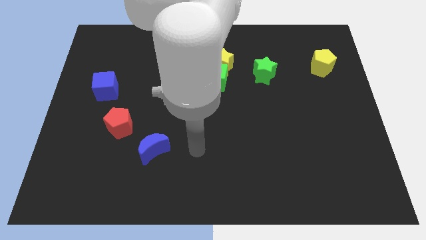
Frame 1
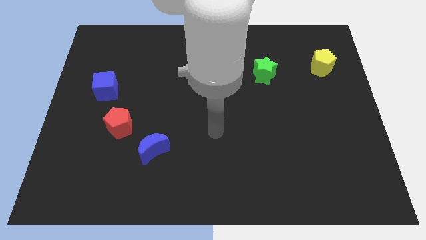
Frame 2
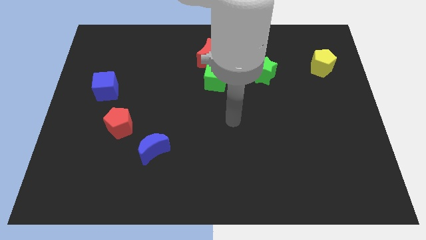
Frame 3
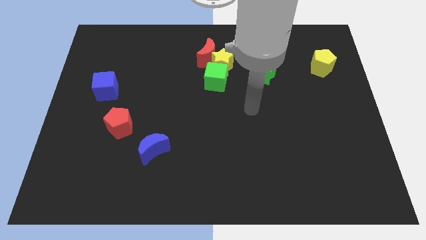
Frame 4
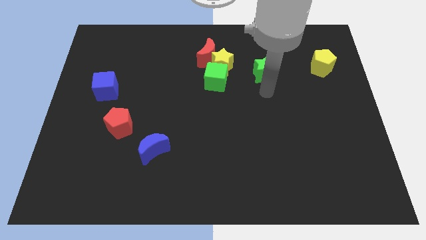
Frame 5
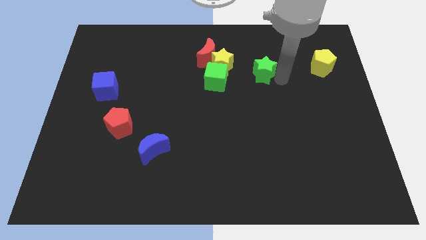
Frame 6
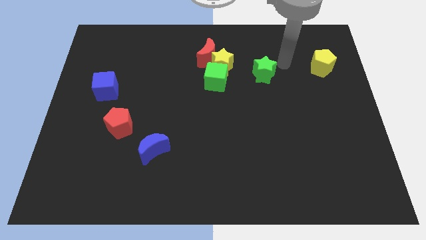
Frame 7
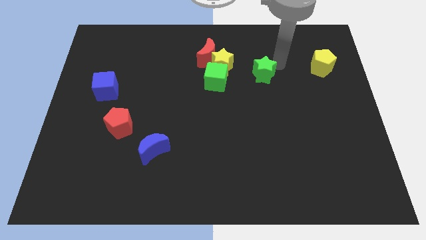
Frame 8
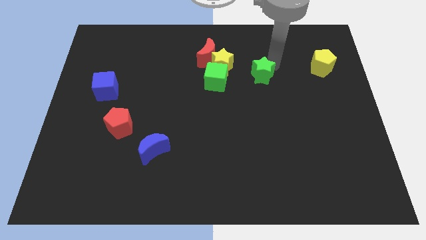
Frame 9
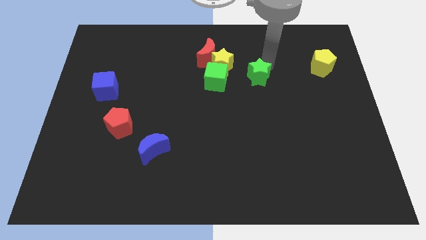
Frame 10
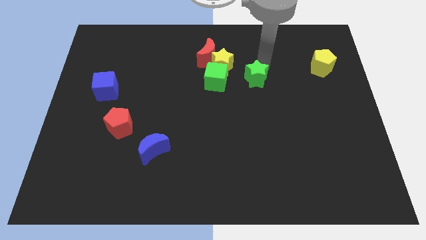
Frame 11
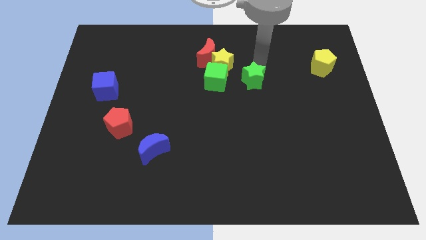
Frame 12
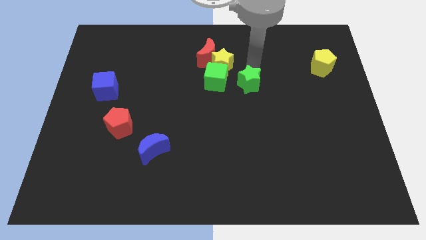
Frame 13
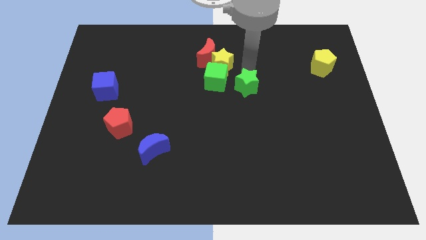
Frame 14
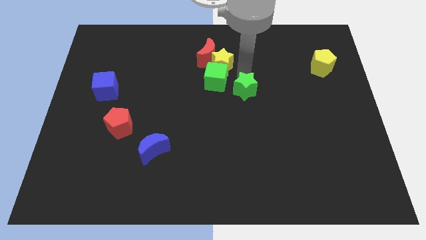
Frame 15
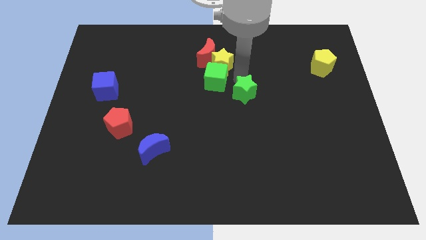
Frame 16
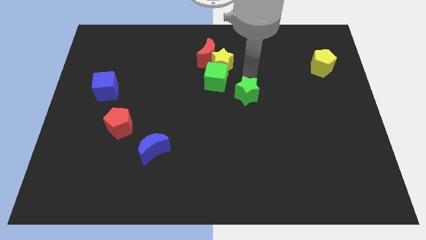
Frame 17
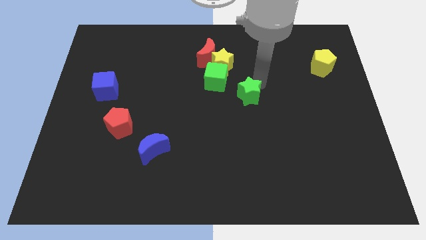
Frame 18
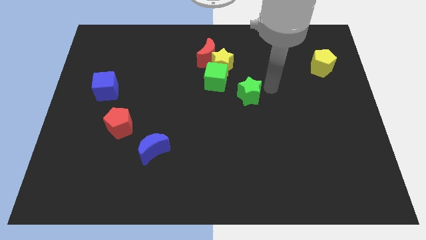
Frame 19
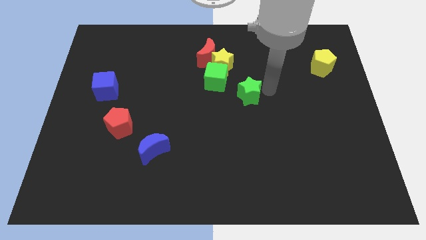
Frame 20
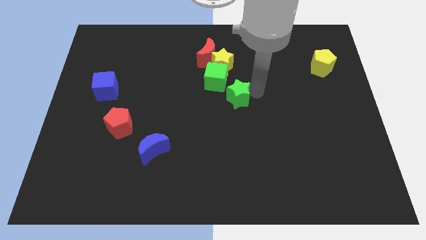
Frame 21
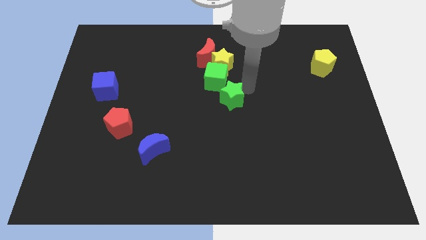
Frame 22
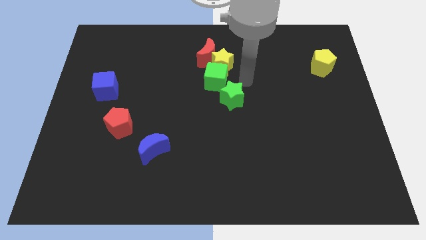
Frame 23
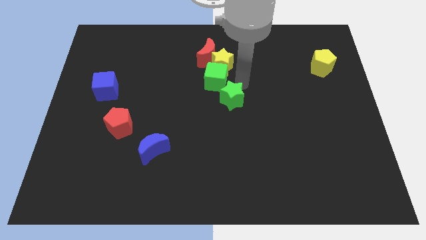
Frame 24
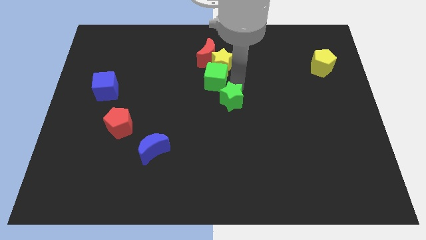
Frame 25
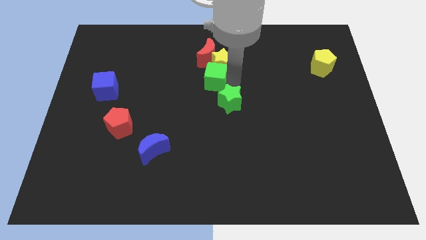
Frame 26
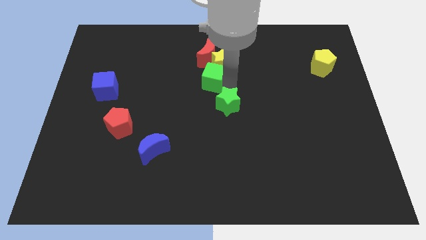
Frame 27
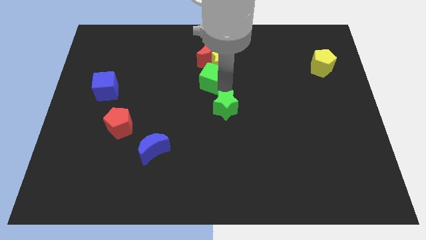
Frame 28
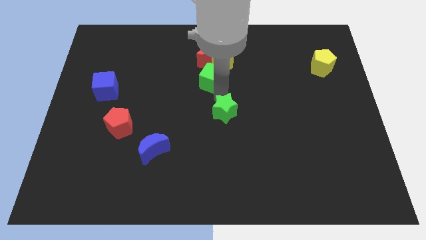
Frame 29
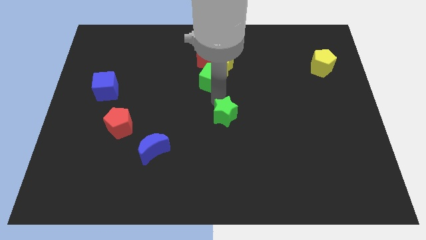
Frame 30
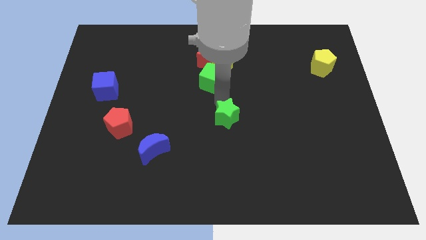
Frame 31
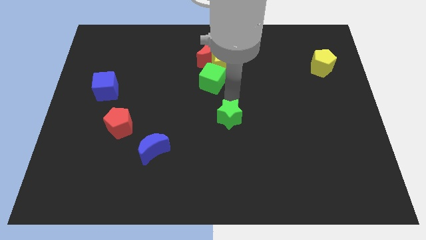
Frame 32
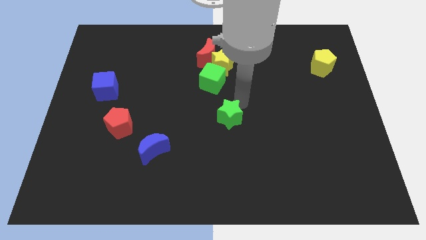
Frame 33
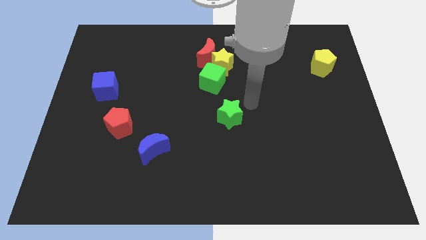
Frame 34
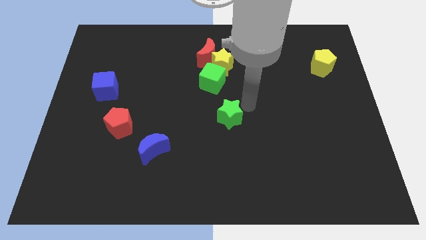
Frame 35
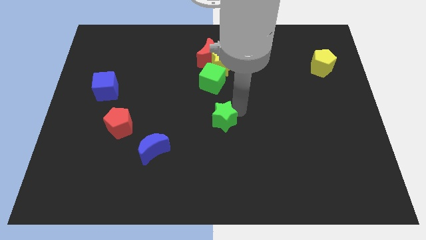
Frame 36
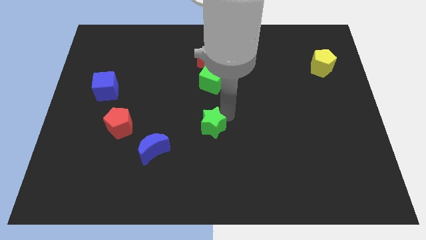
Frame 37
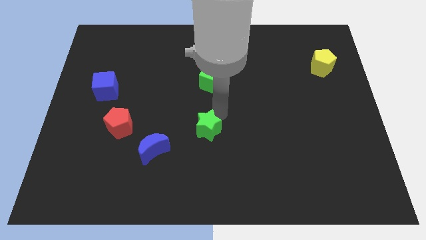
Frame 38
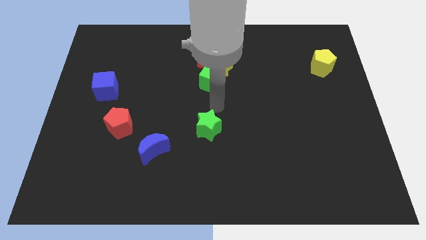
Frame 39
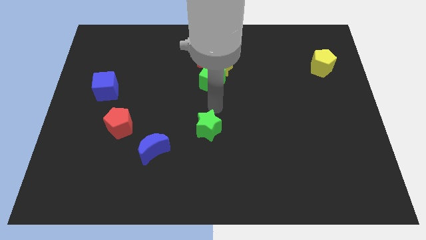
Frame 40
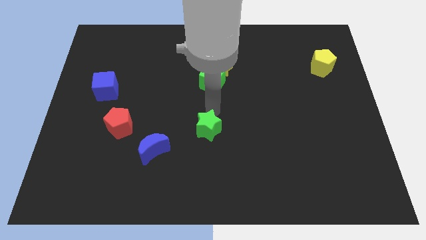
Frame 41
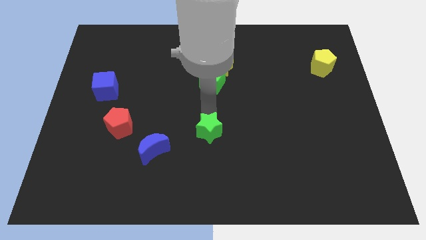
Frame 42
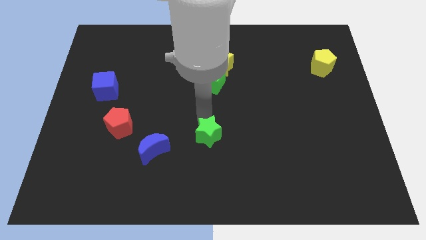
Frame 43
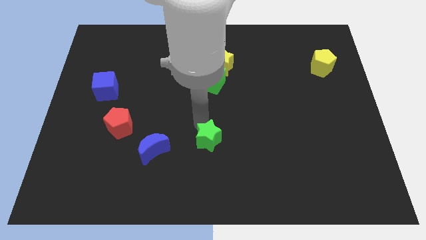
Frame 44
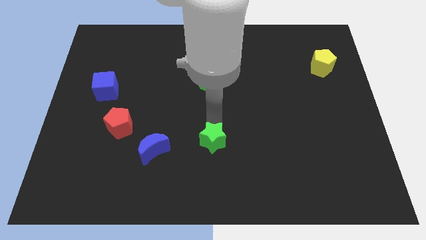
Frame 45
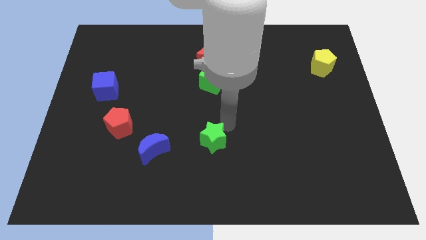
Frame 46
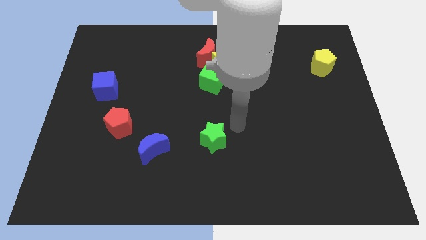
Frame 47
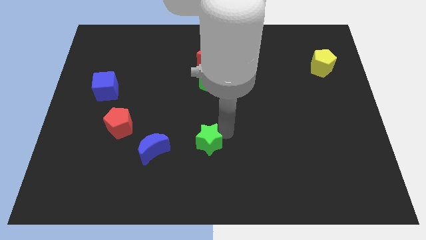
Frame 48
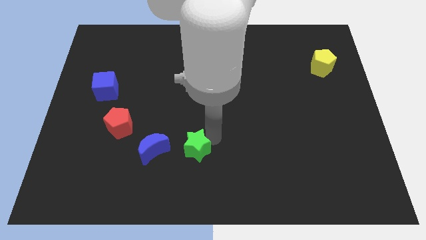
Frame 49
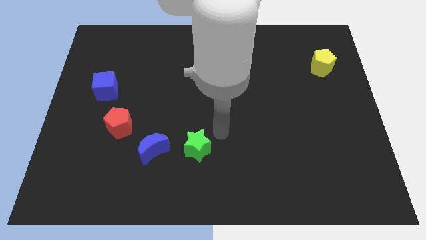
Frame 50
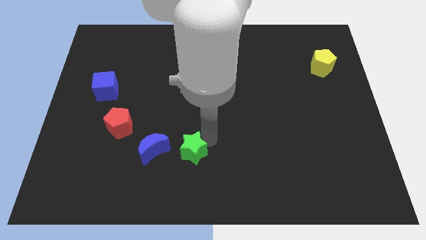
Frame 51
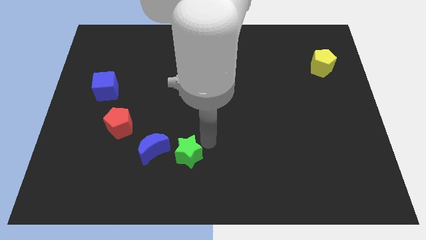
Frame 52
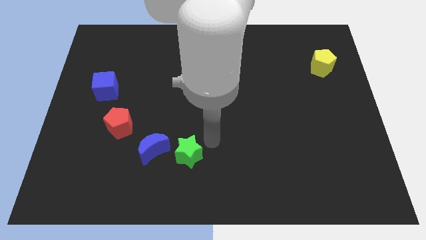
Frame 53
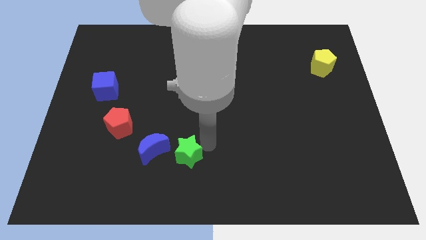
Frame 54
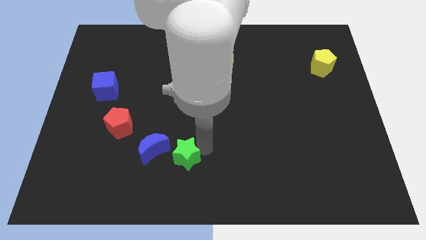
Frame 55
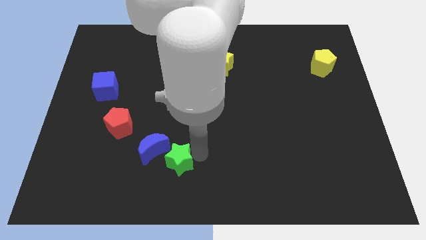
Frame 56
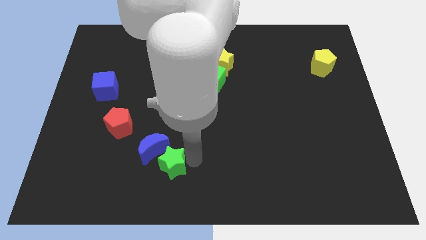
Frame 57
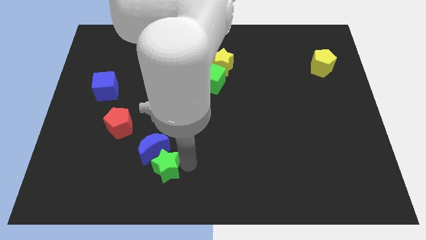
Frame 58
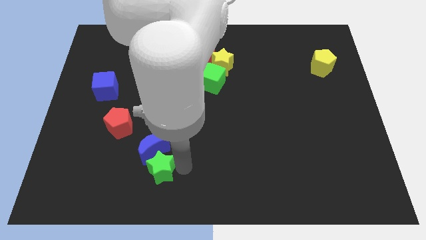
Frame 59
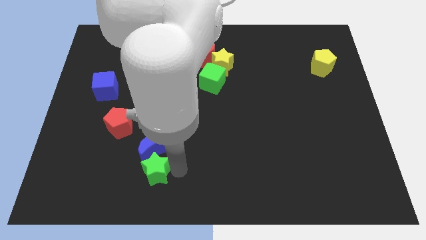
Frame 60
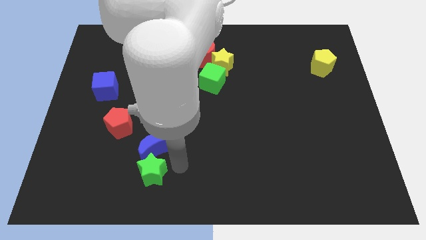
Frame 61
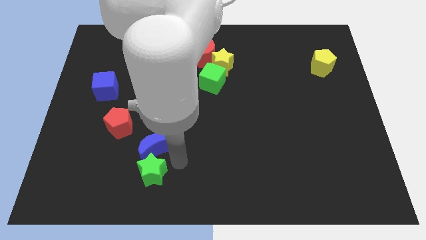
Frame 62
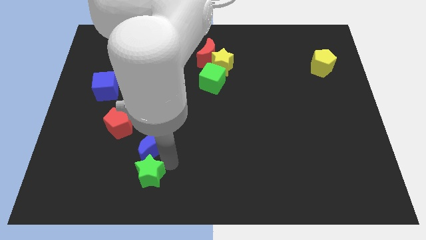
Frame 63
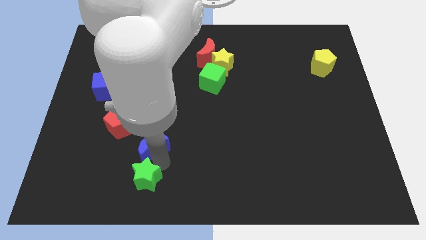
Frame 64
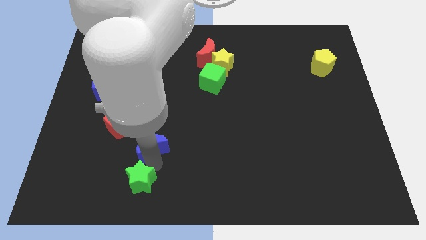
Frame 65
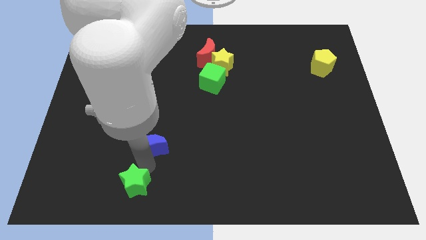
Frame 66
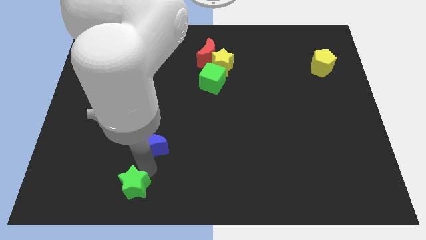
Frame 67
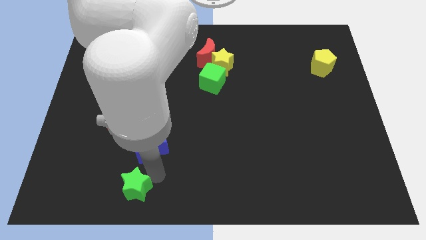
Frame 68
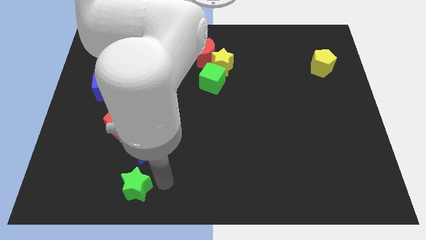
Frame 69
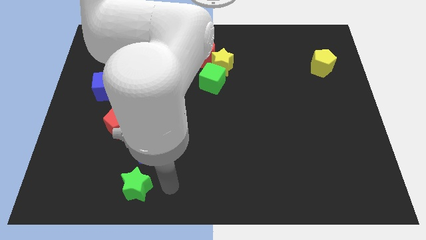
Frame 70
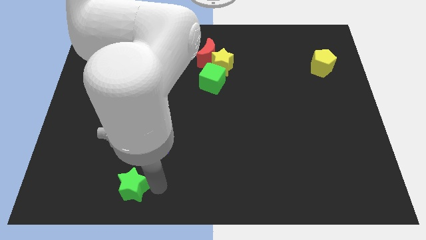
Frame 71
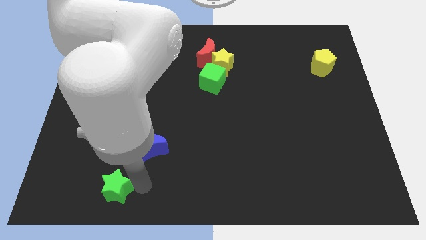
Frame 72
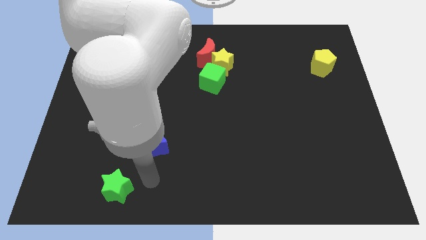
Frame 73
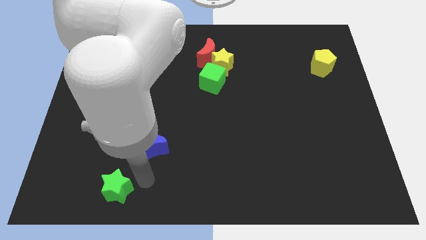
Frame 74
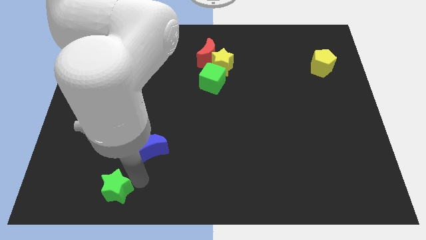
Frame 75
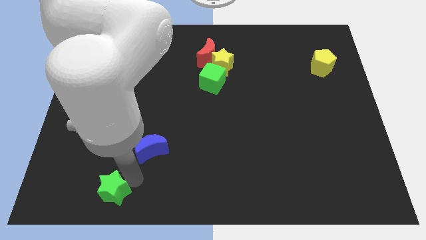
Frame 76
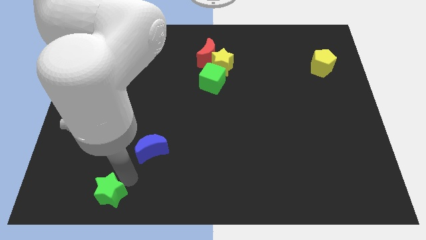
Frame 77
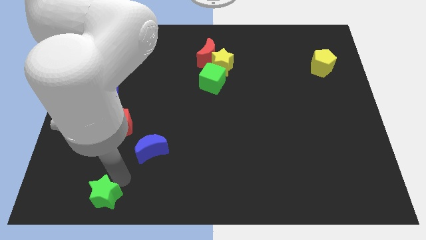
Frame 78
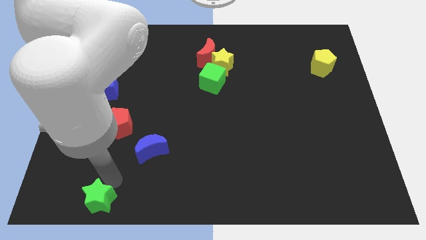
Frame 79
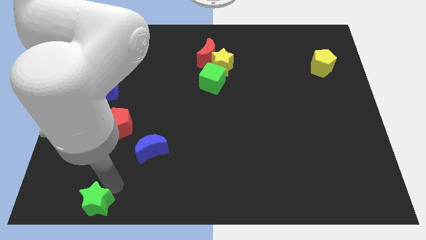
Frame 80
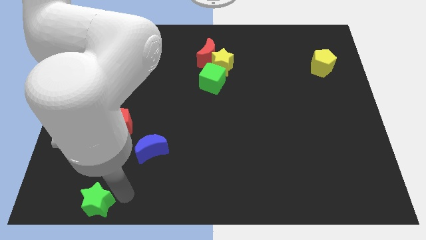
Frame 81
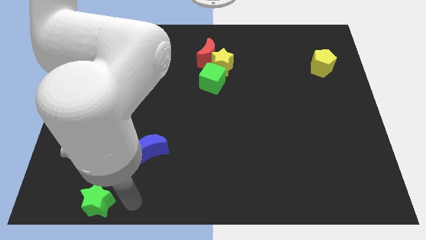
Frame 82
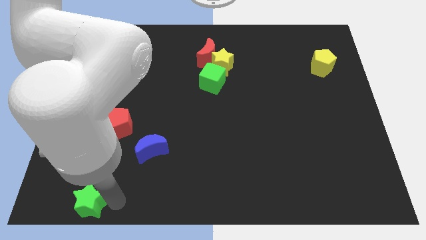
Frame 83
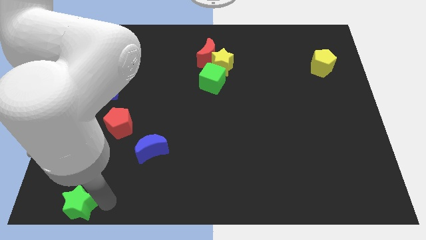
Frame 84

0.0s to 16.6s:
push the green star to the bottom left
